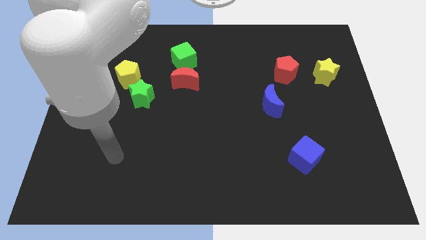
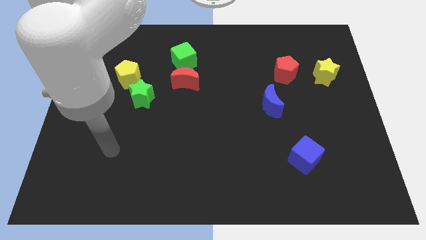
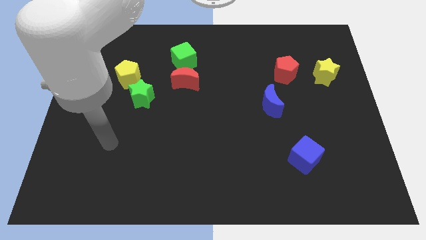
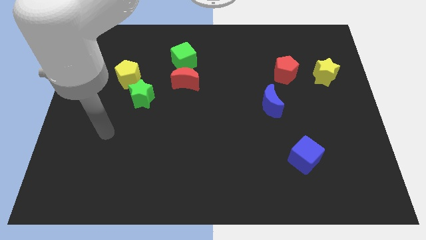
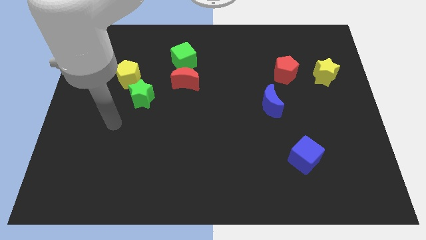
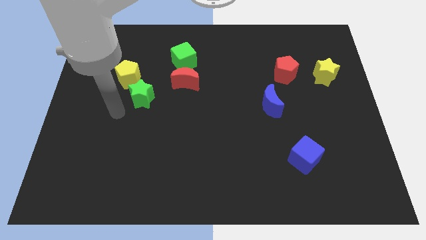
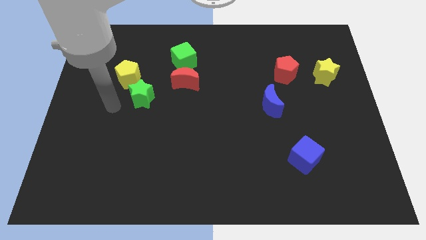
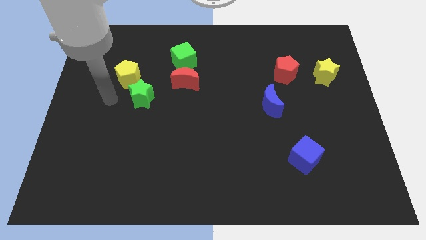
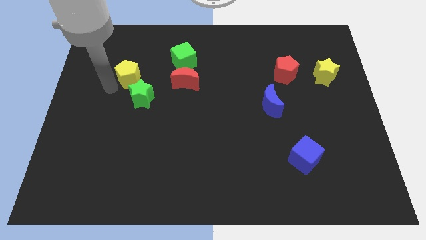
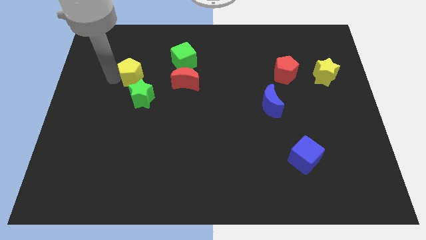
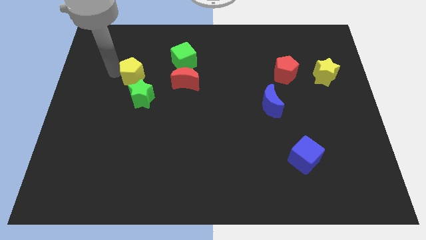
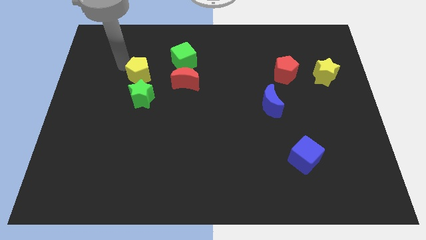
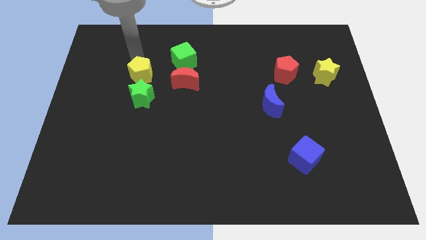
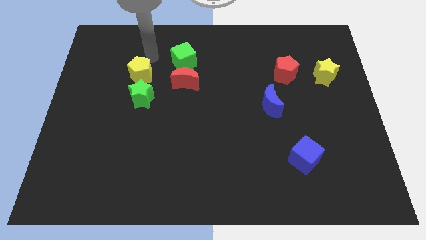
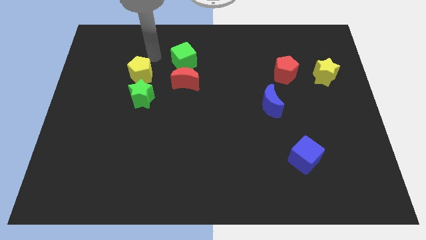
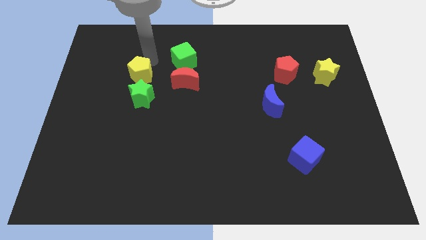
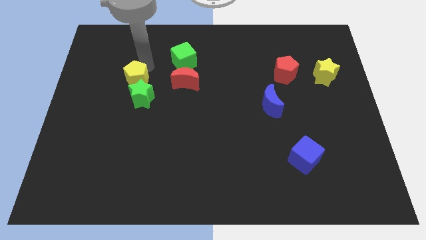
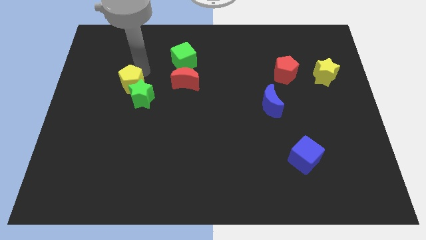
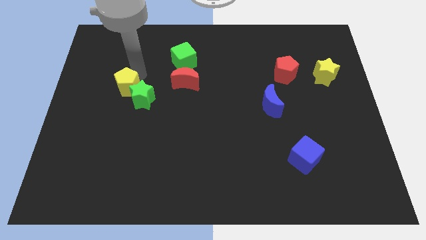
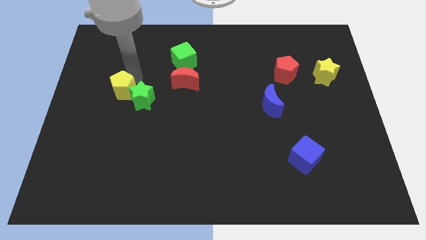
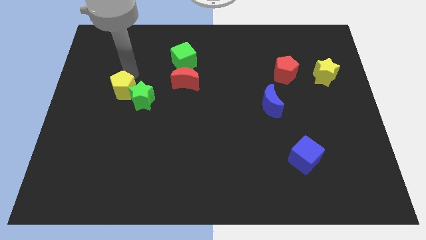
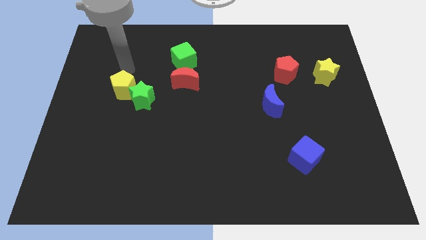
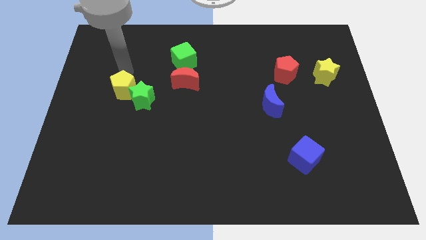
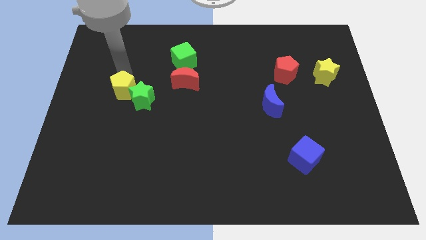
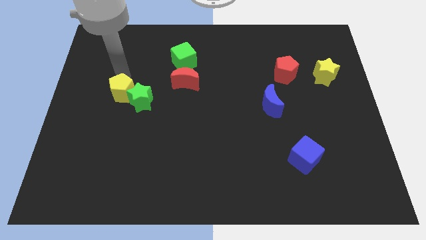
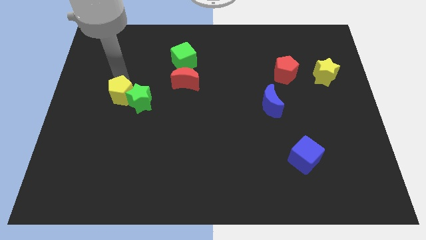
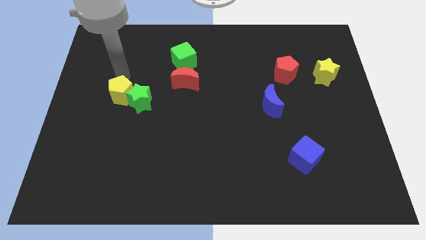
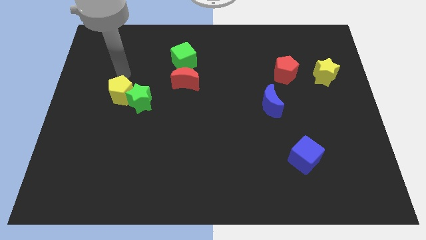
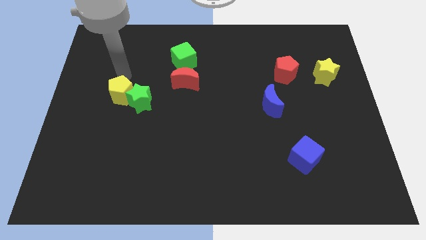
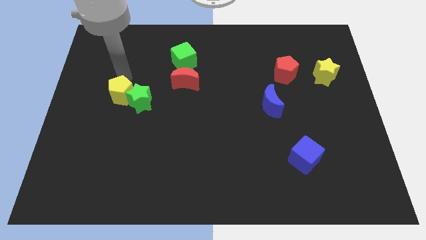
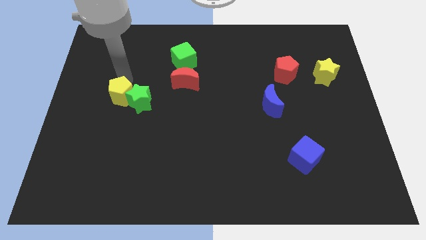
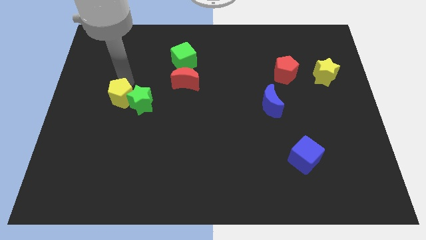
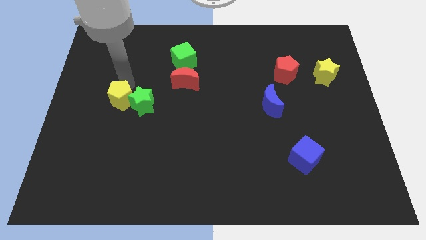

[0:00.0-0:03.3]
slightly slide the yellow pentagon down

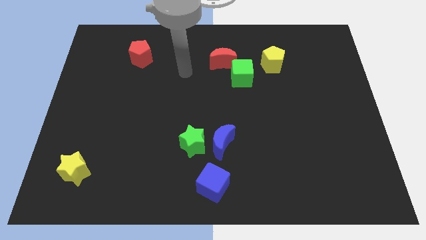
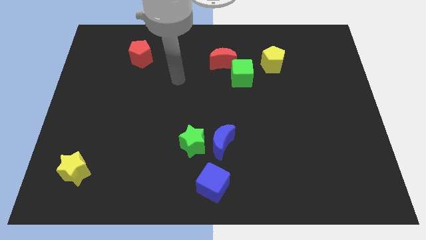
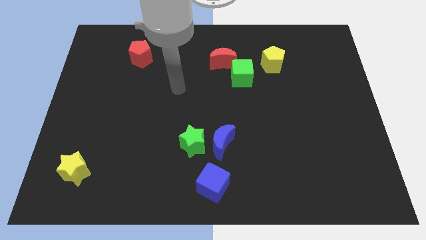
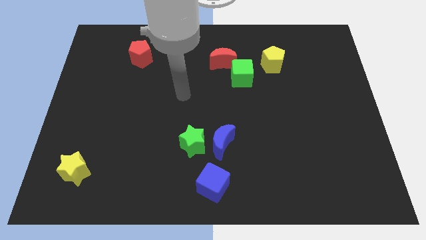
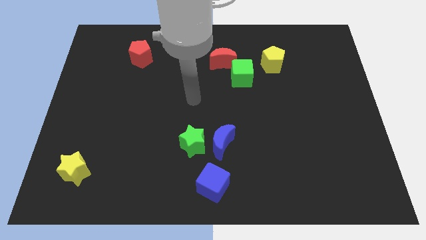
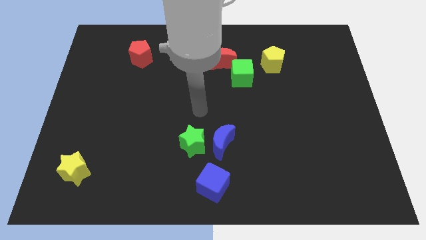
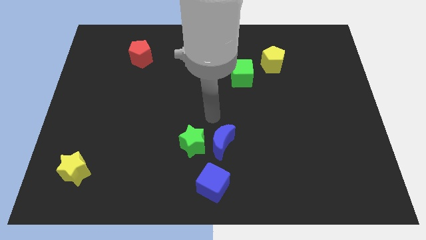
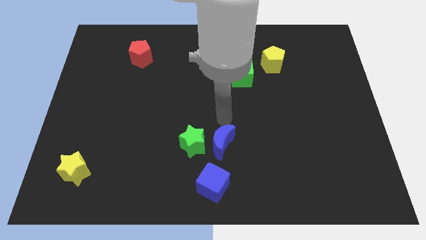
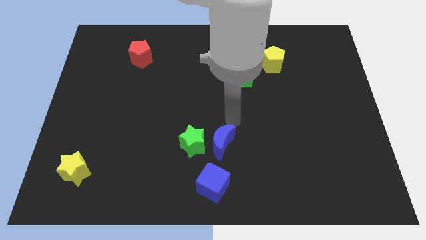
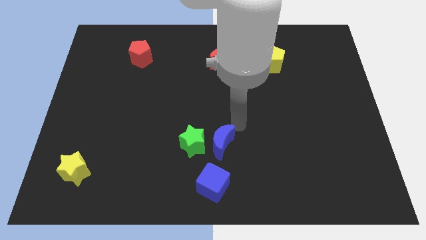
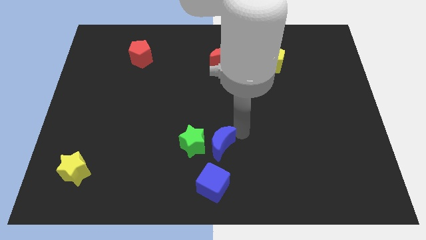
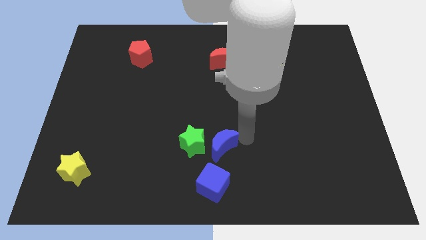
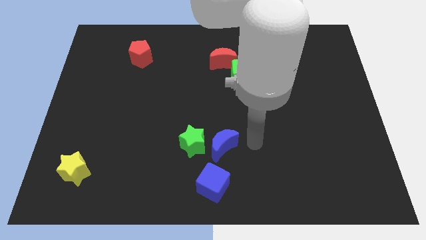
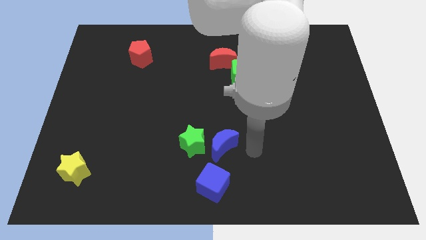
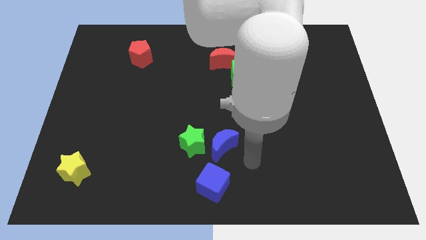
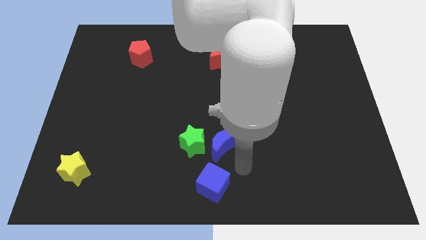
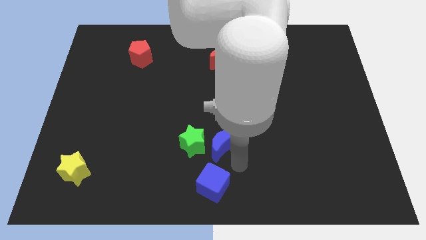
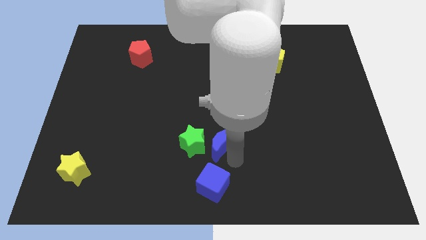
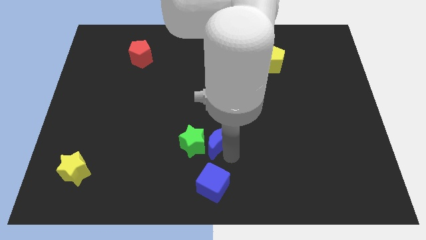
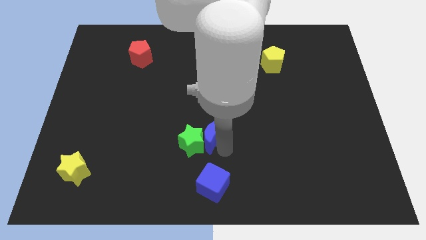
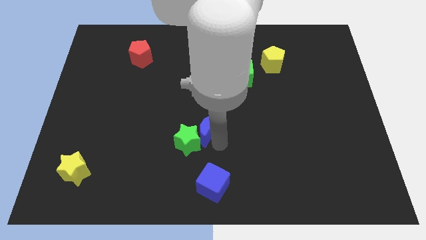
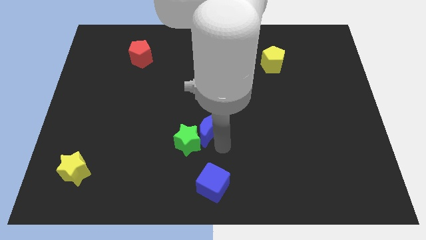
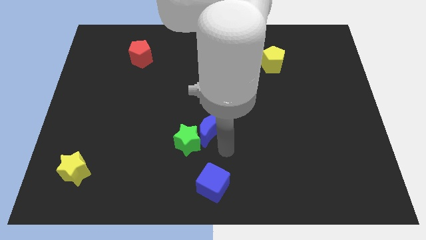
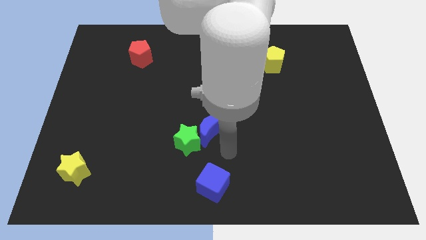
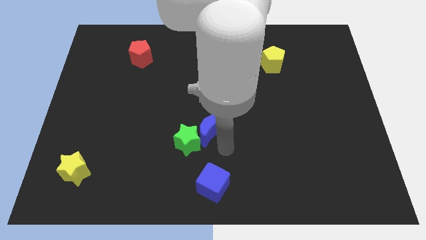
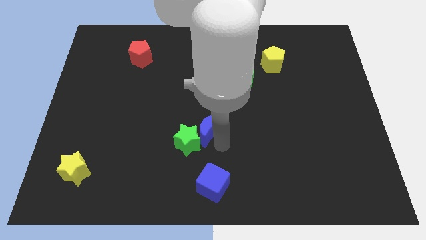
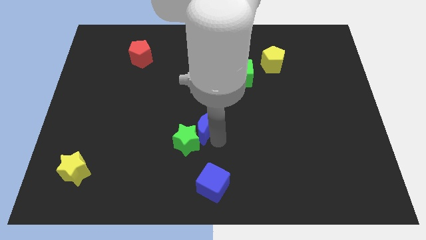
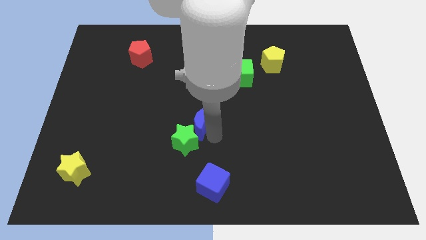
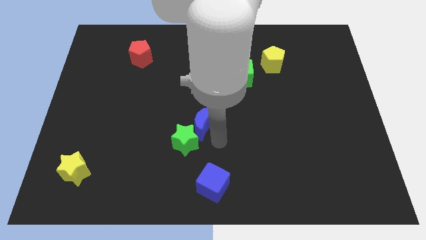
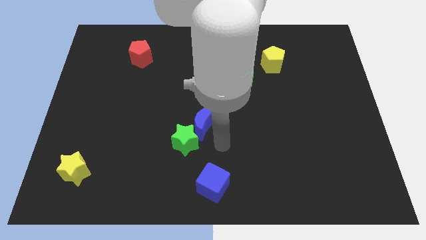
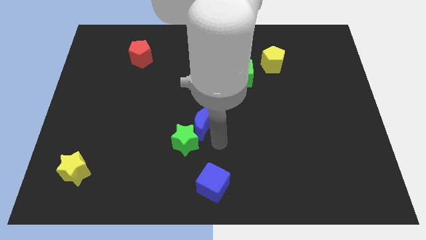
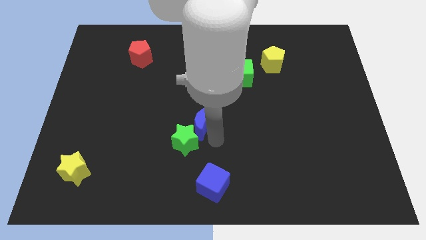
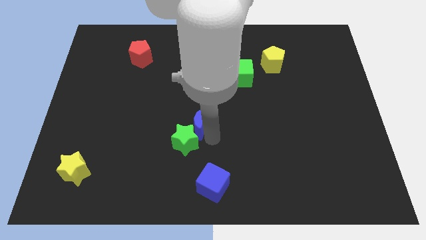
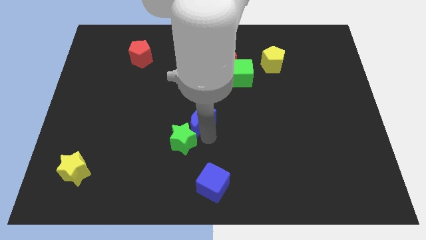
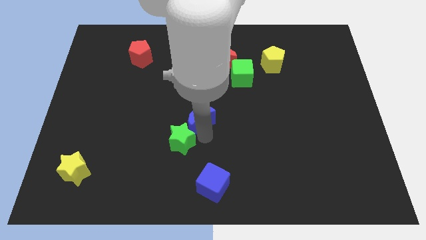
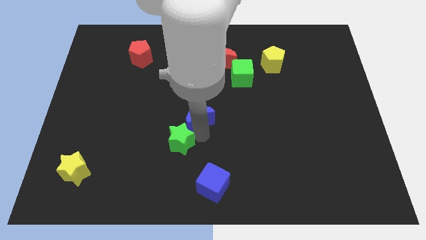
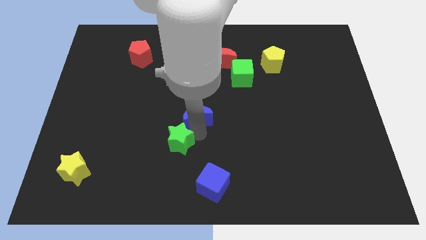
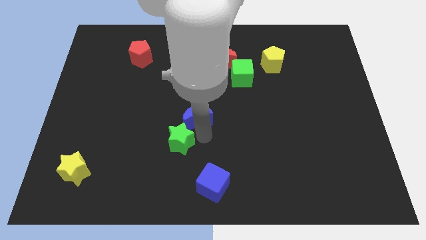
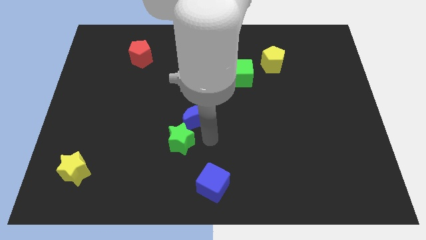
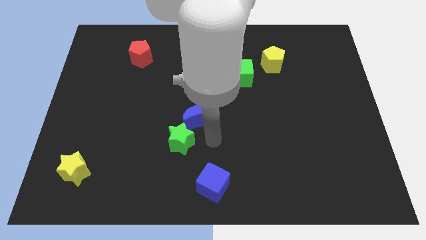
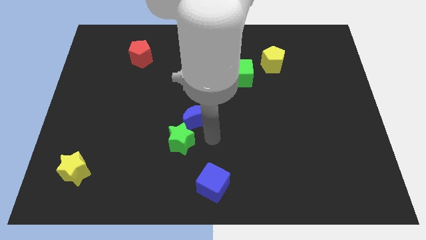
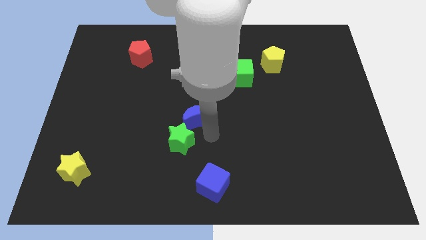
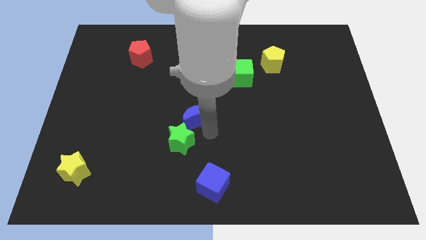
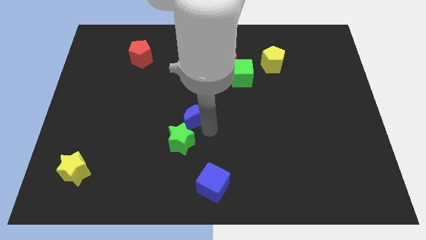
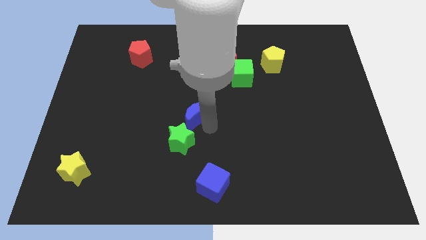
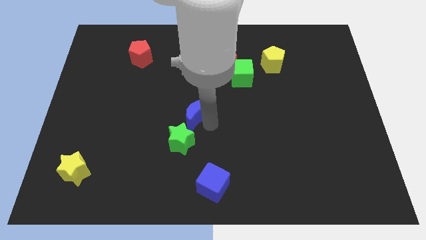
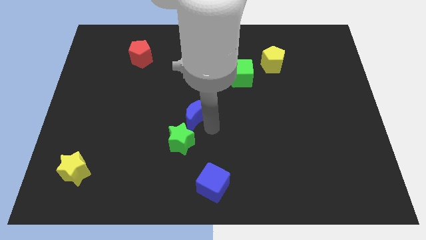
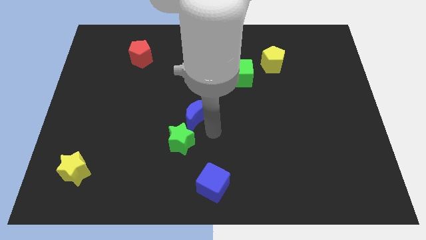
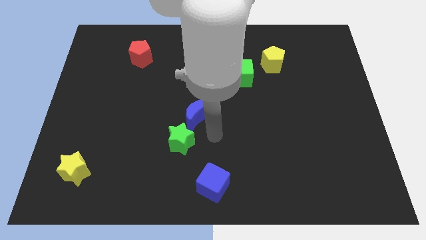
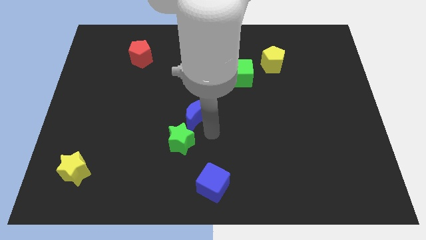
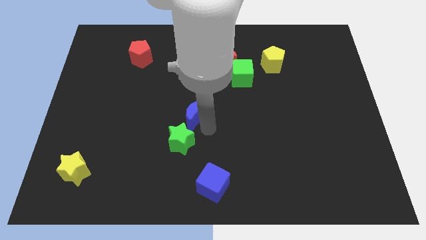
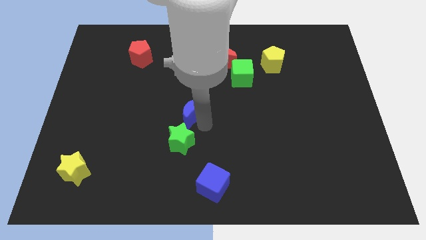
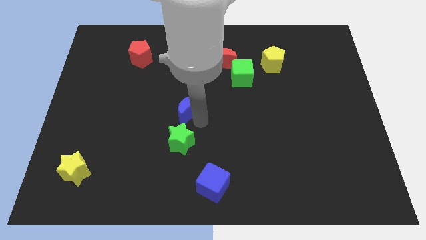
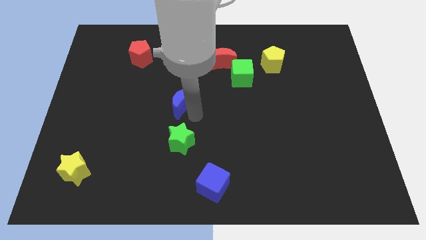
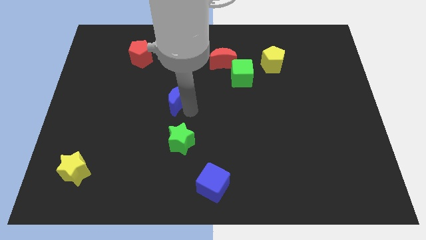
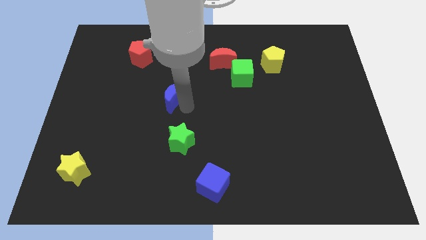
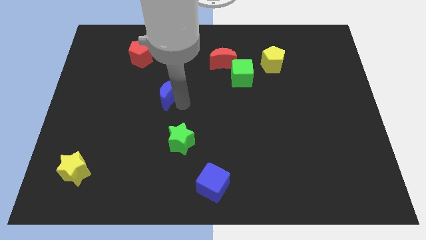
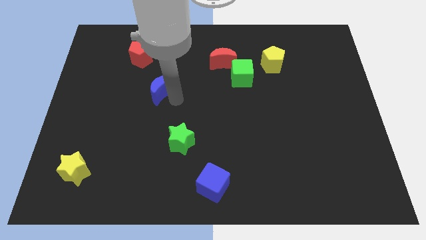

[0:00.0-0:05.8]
slide the blue moon diagonally up and left
